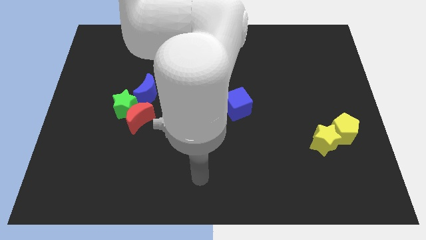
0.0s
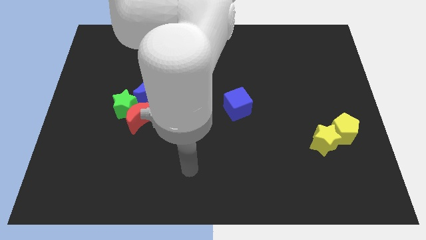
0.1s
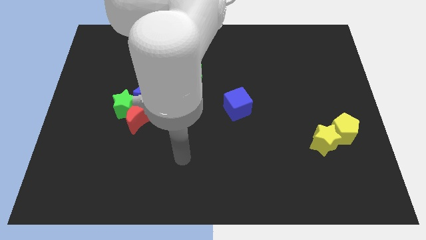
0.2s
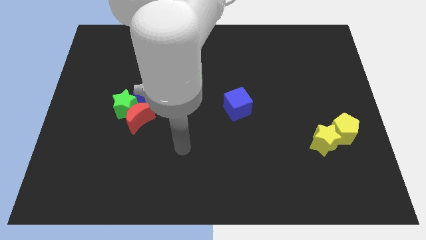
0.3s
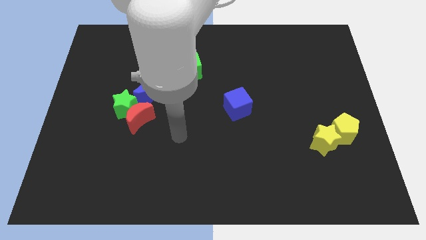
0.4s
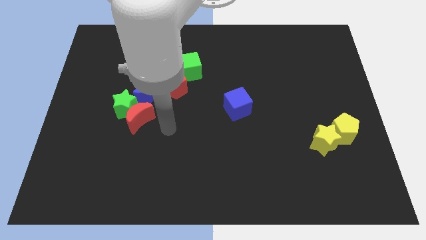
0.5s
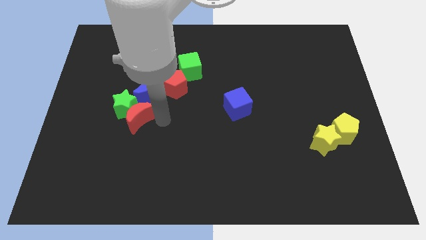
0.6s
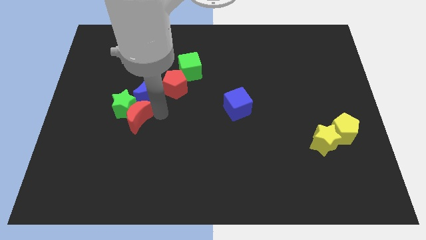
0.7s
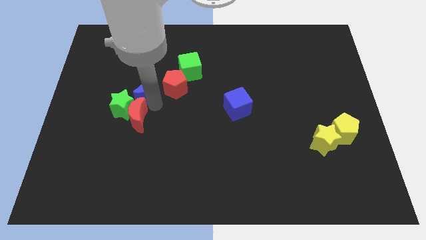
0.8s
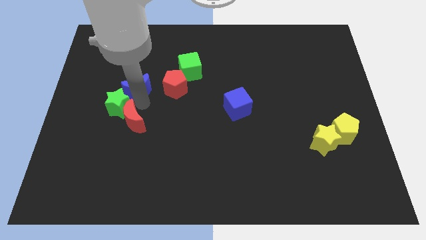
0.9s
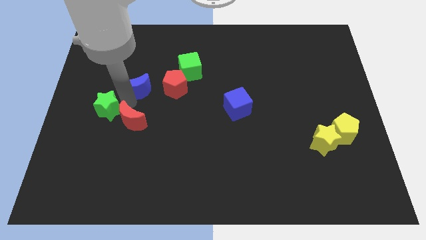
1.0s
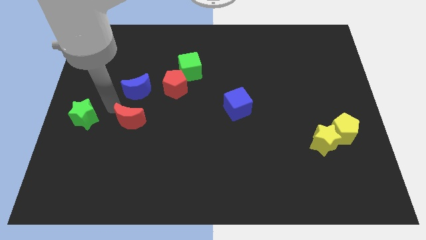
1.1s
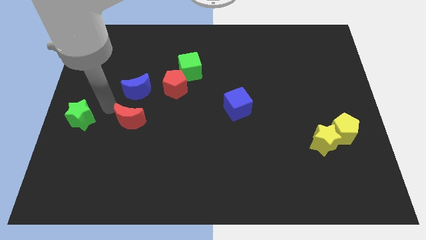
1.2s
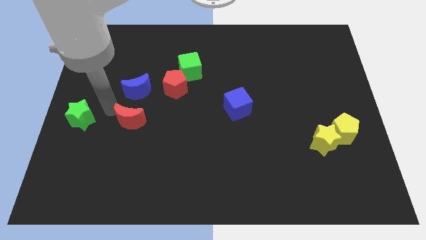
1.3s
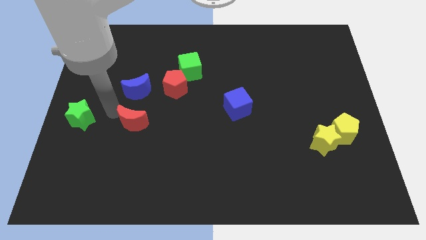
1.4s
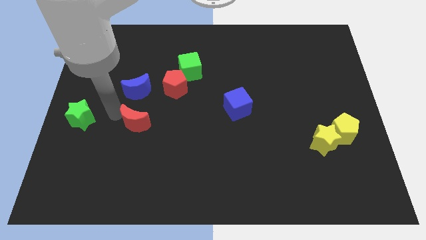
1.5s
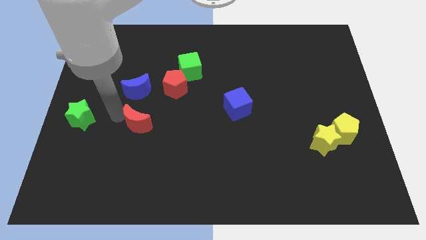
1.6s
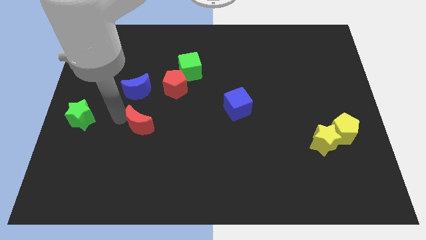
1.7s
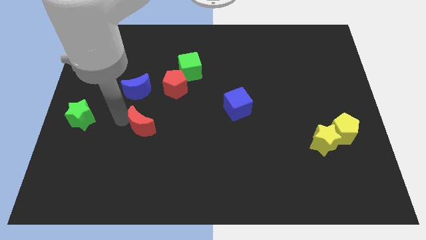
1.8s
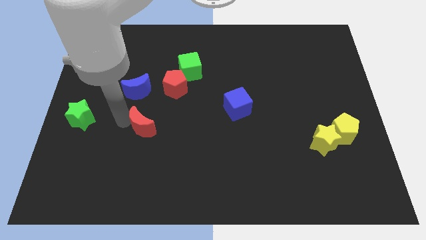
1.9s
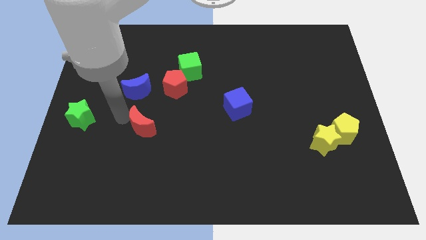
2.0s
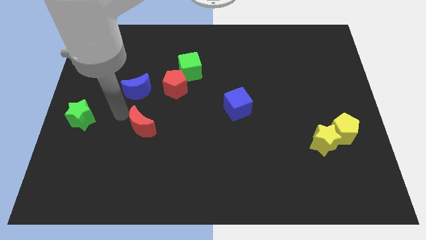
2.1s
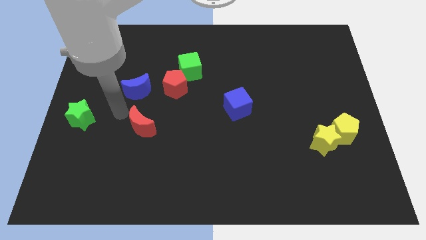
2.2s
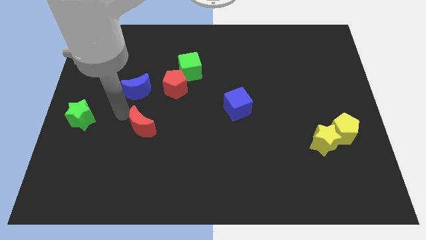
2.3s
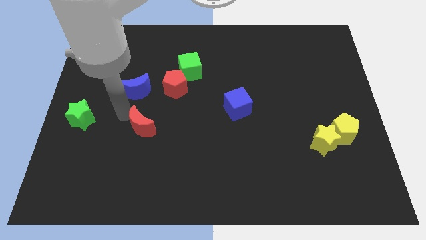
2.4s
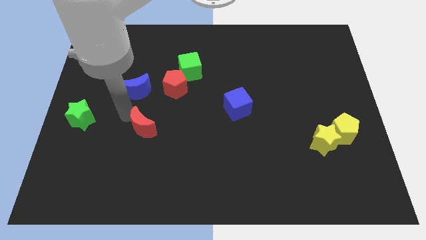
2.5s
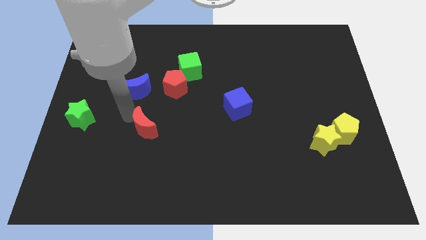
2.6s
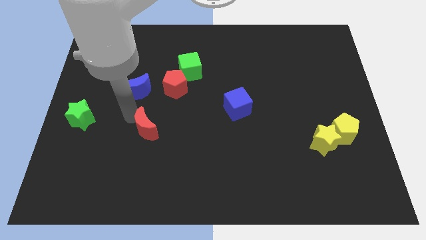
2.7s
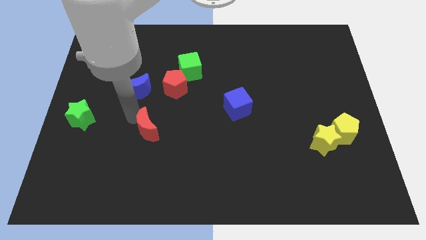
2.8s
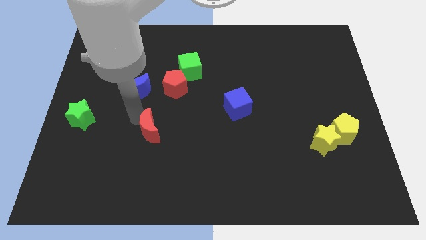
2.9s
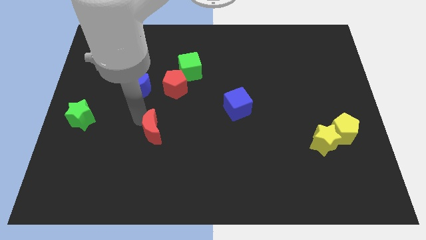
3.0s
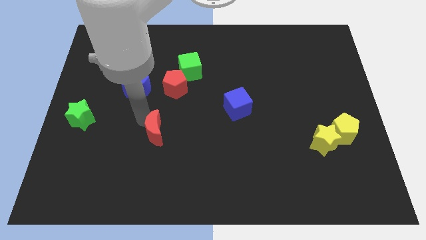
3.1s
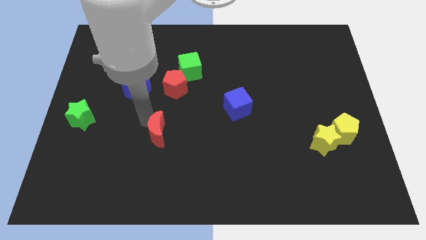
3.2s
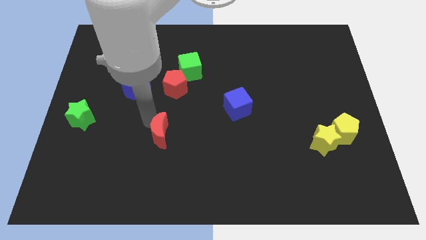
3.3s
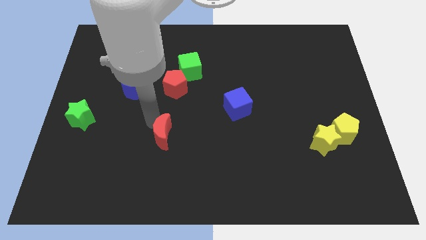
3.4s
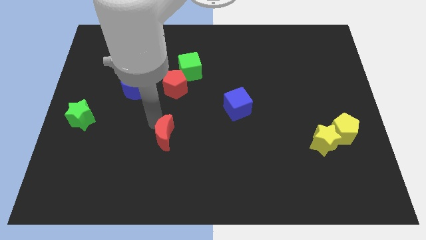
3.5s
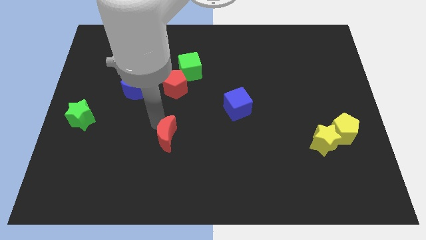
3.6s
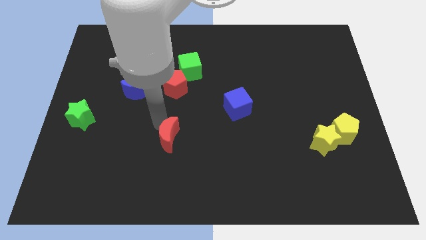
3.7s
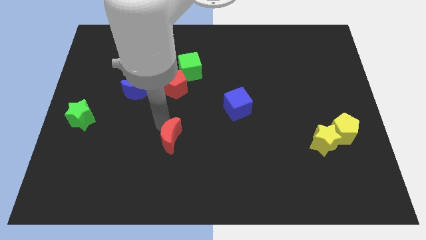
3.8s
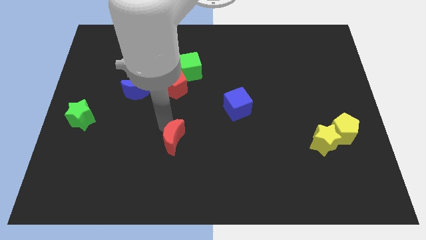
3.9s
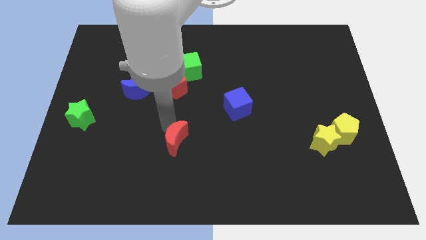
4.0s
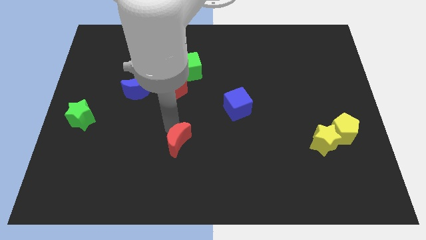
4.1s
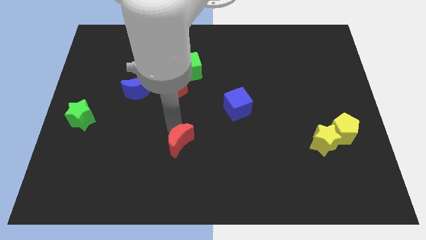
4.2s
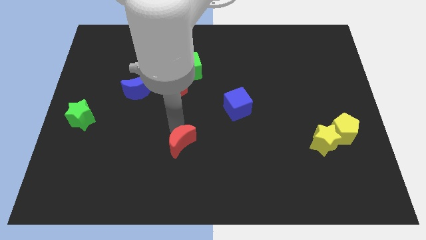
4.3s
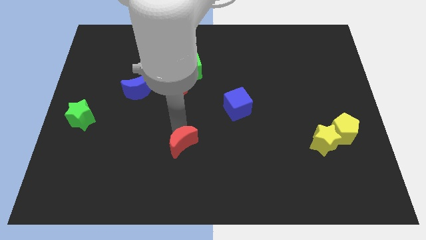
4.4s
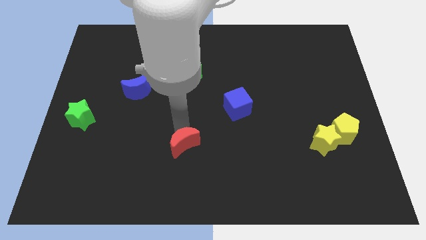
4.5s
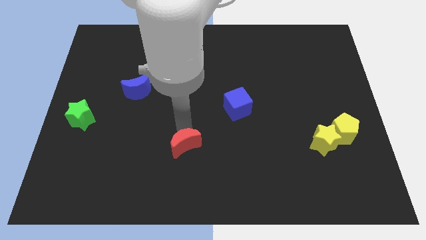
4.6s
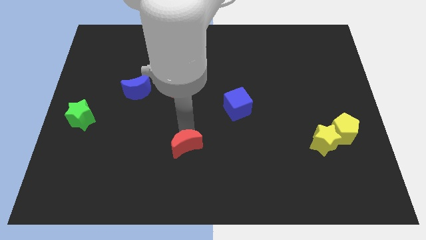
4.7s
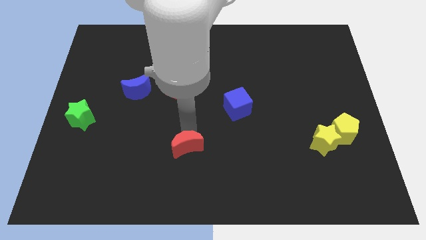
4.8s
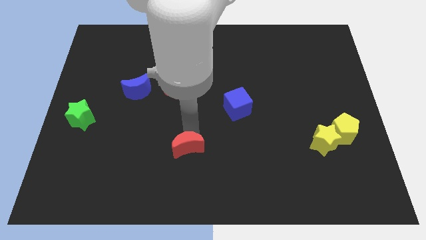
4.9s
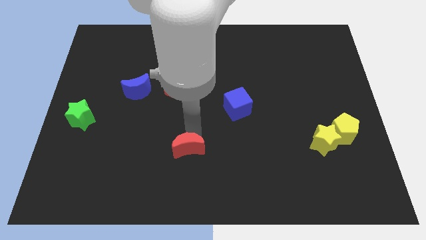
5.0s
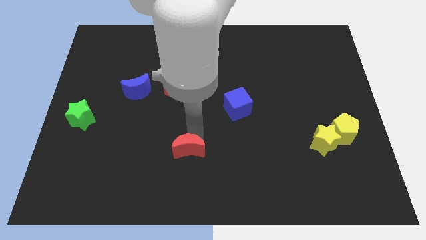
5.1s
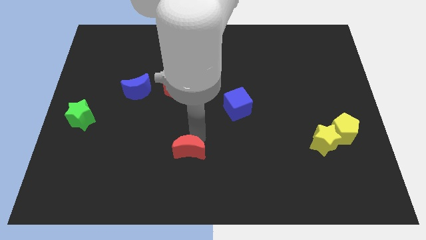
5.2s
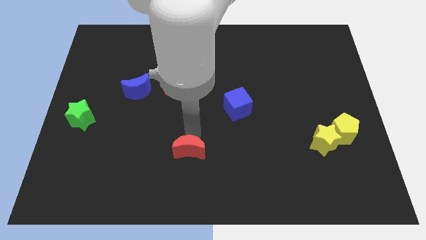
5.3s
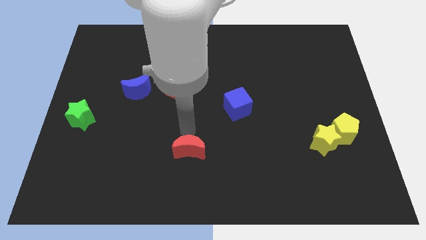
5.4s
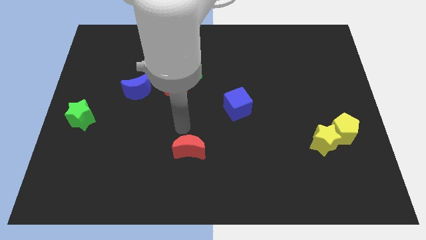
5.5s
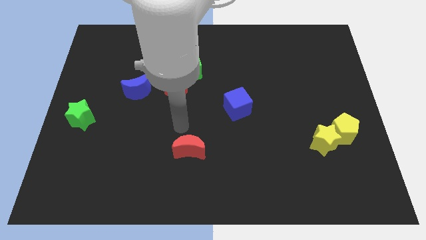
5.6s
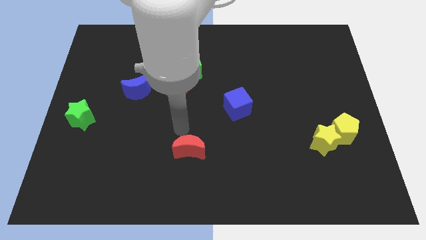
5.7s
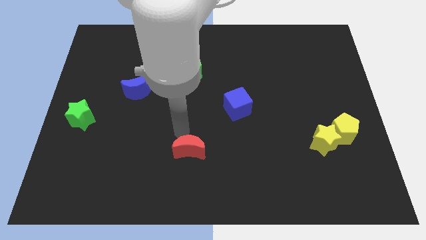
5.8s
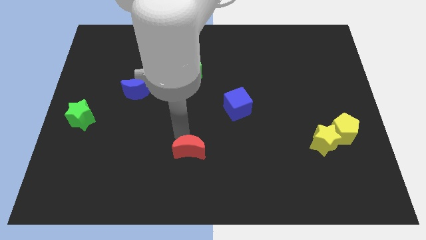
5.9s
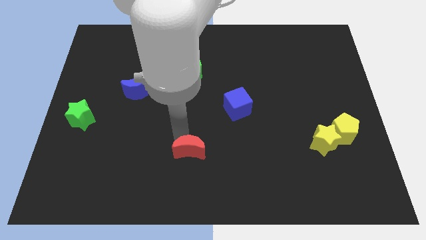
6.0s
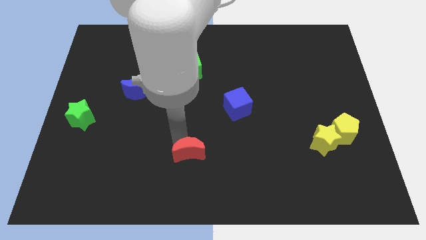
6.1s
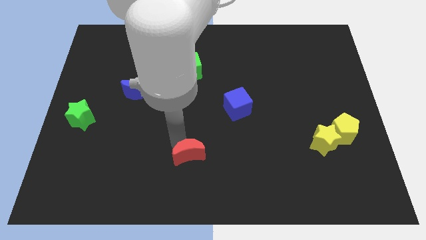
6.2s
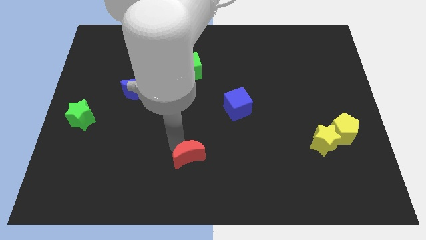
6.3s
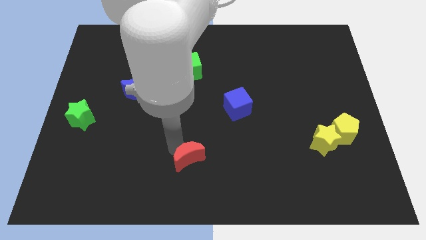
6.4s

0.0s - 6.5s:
push the red moon to the bottom side
